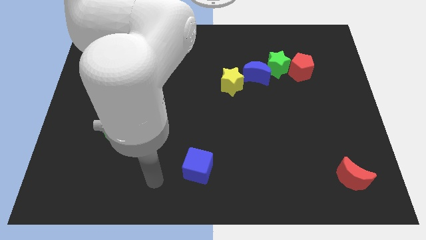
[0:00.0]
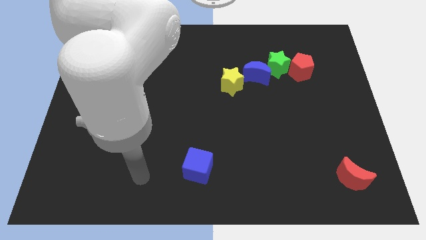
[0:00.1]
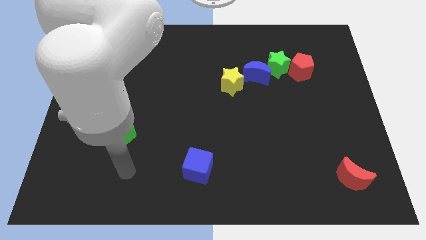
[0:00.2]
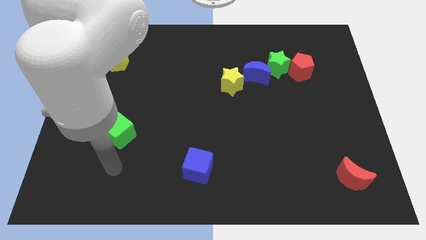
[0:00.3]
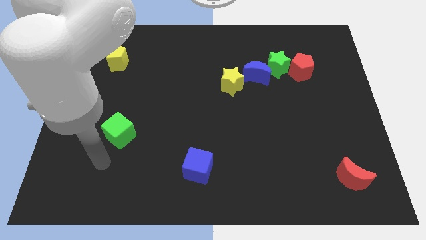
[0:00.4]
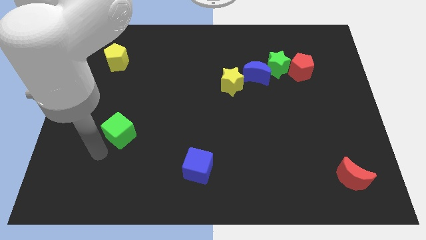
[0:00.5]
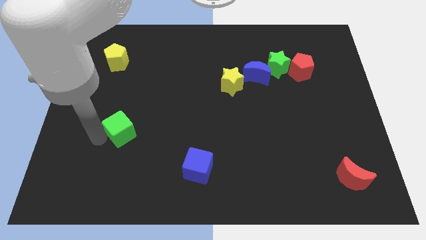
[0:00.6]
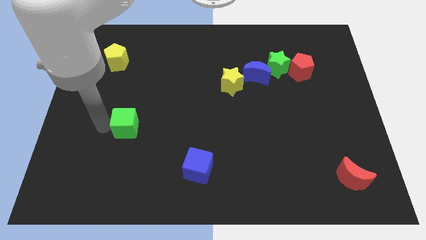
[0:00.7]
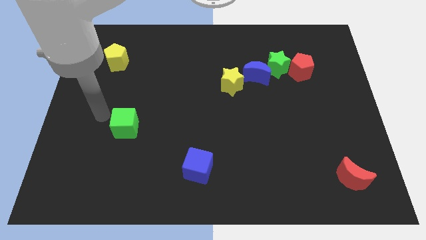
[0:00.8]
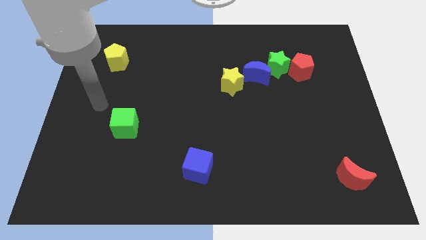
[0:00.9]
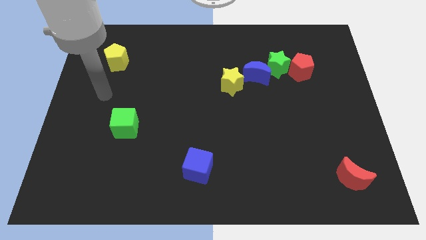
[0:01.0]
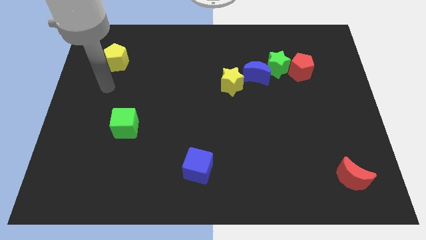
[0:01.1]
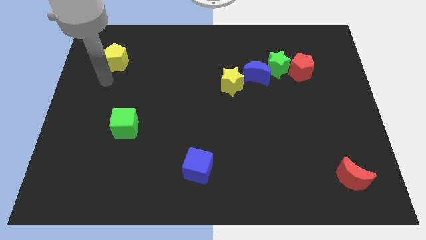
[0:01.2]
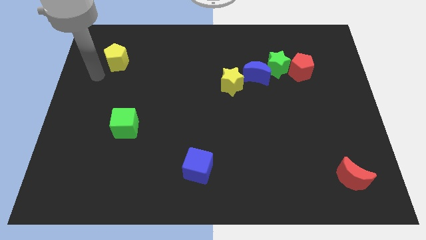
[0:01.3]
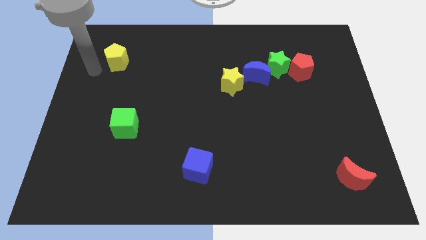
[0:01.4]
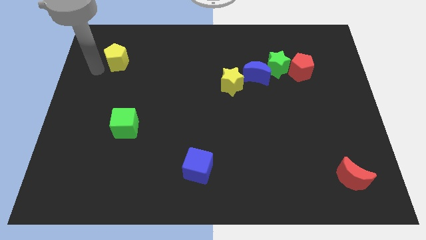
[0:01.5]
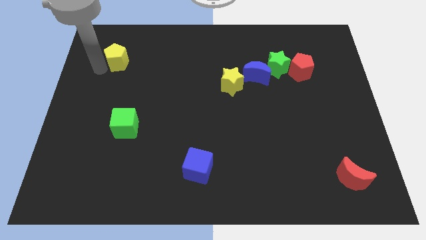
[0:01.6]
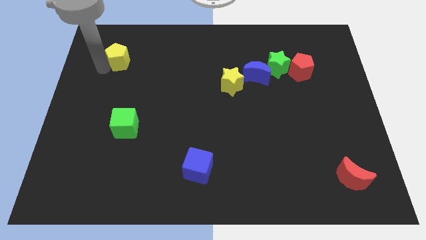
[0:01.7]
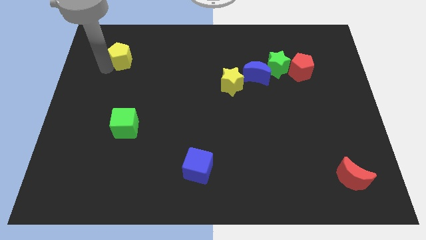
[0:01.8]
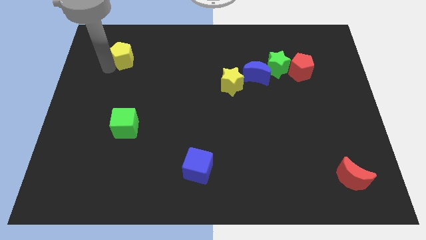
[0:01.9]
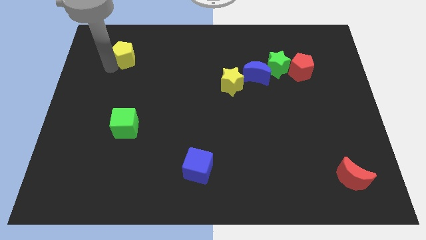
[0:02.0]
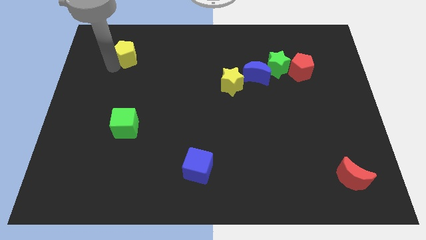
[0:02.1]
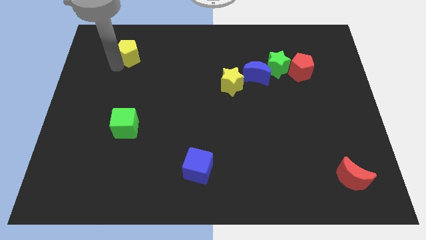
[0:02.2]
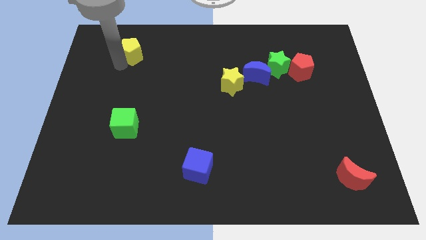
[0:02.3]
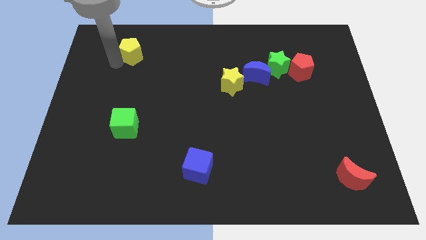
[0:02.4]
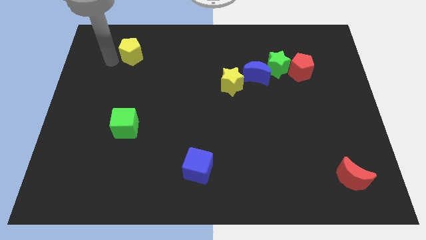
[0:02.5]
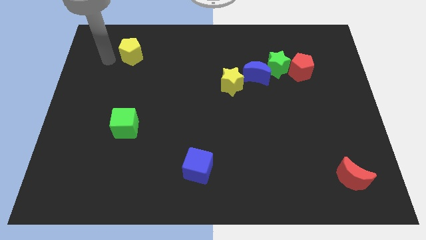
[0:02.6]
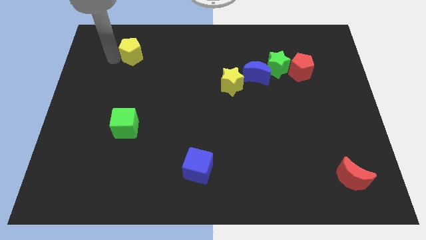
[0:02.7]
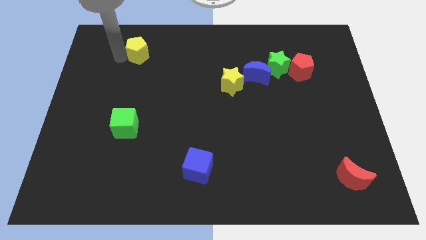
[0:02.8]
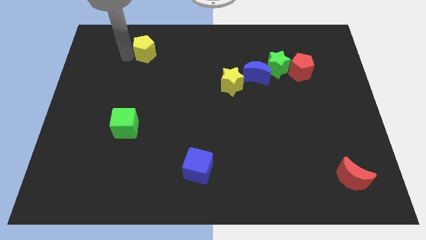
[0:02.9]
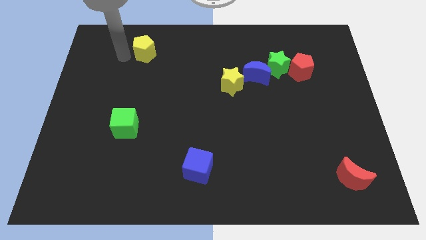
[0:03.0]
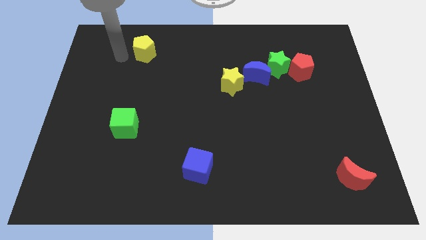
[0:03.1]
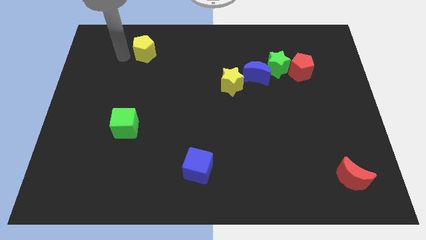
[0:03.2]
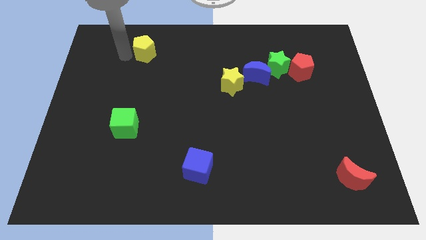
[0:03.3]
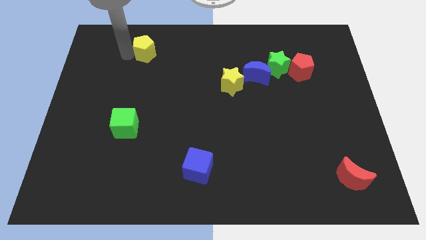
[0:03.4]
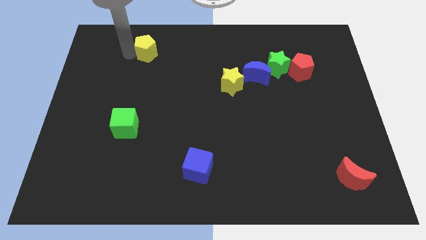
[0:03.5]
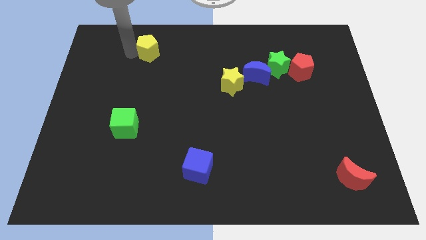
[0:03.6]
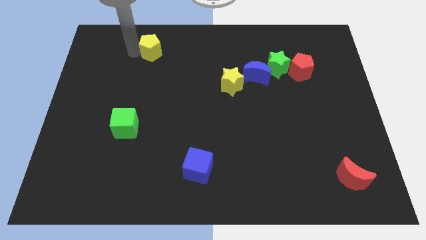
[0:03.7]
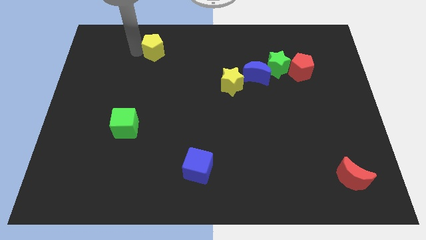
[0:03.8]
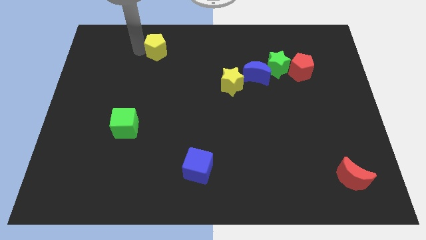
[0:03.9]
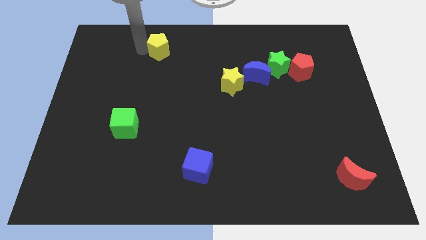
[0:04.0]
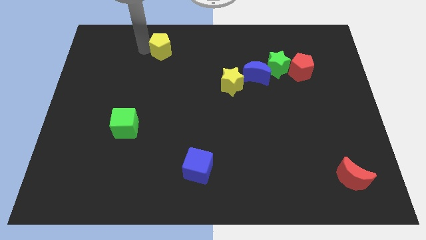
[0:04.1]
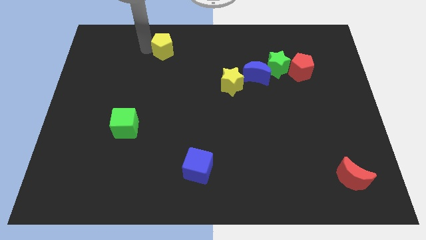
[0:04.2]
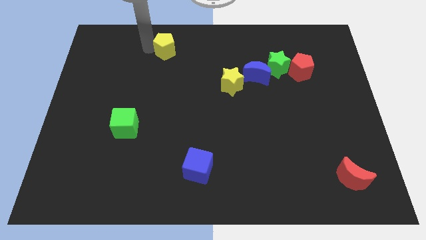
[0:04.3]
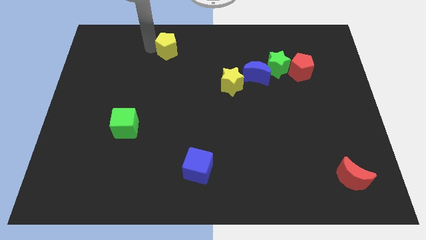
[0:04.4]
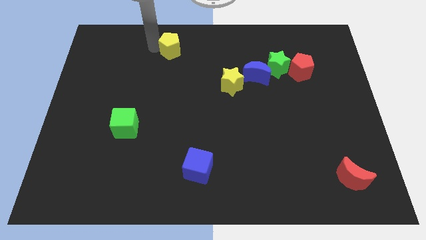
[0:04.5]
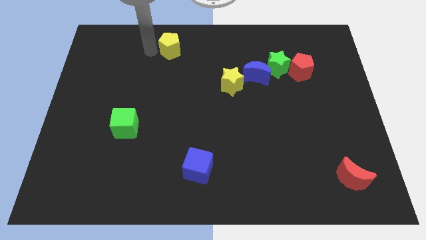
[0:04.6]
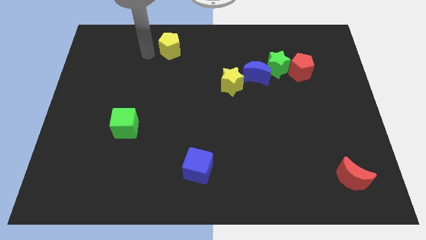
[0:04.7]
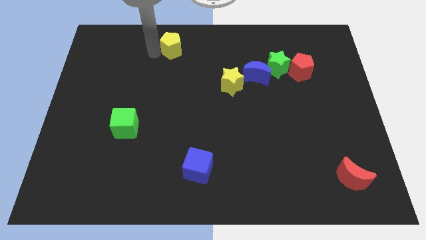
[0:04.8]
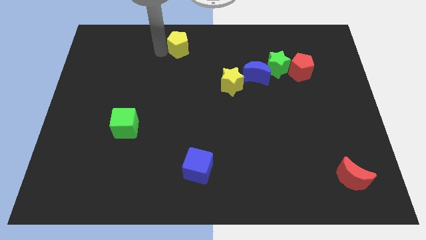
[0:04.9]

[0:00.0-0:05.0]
push the yellow pentagon to the towards your base

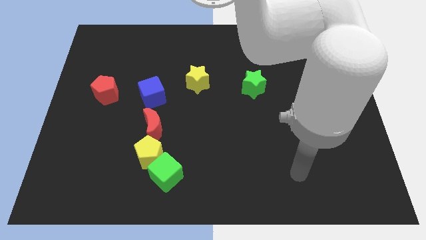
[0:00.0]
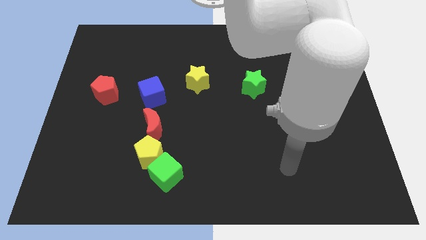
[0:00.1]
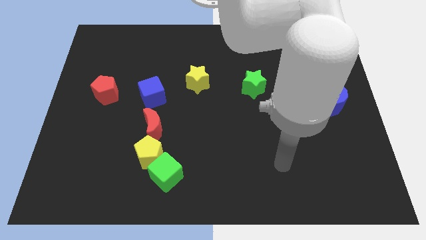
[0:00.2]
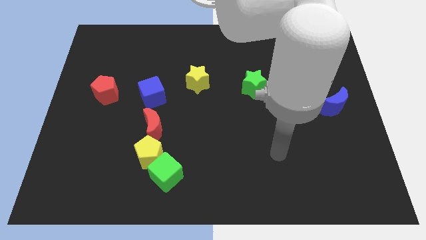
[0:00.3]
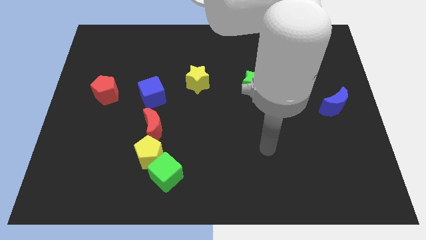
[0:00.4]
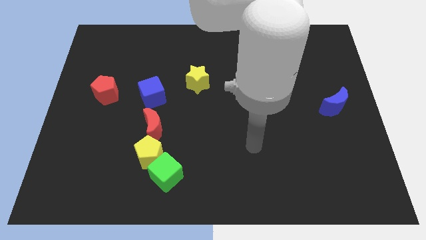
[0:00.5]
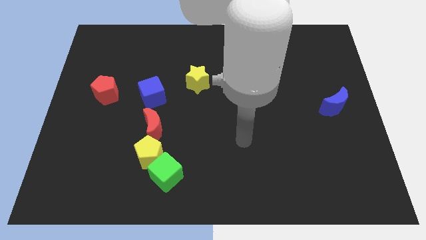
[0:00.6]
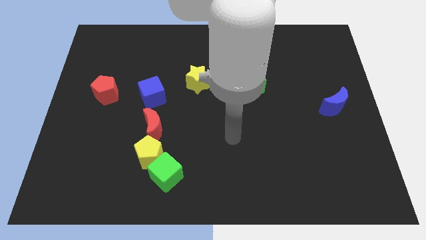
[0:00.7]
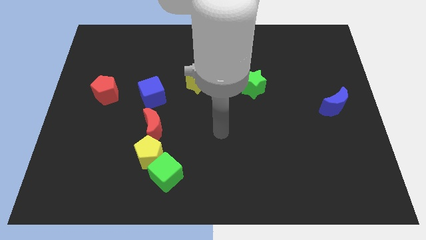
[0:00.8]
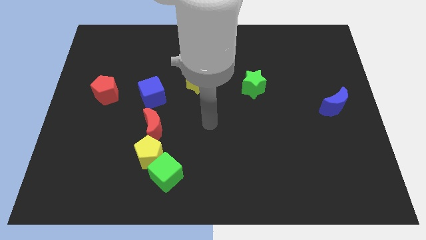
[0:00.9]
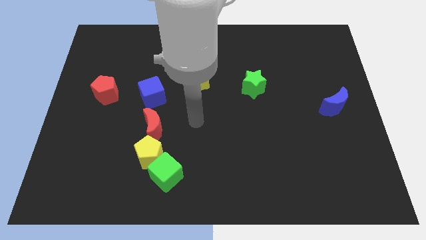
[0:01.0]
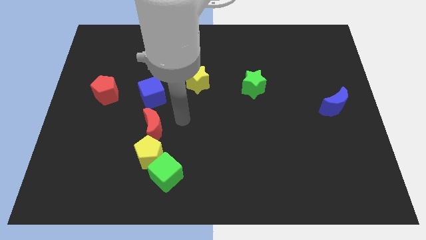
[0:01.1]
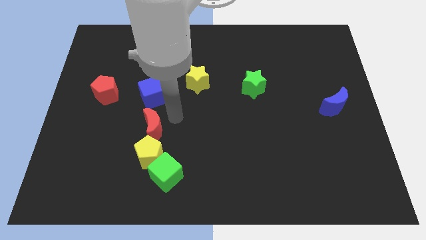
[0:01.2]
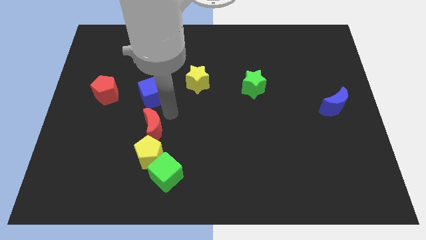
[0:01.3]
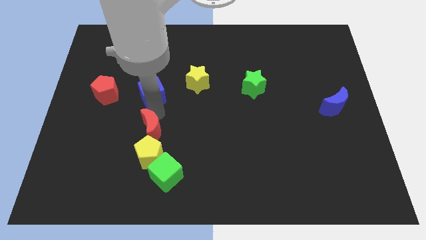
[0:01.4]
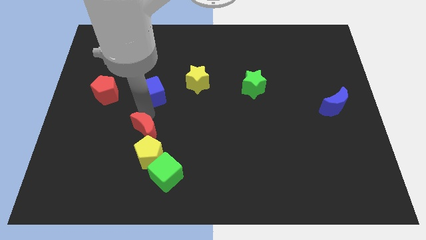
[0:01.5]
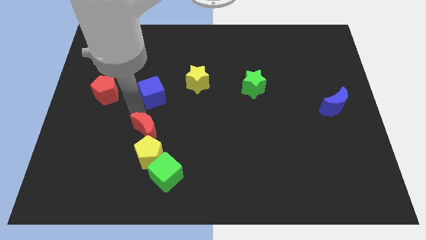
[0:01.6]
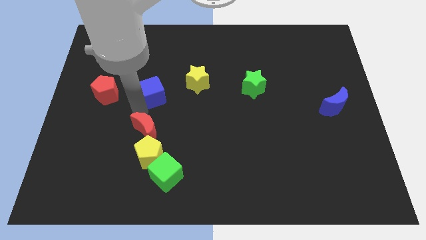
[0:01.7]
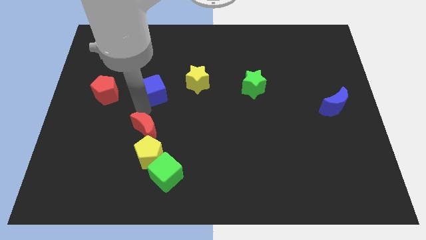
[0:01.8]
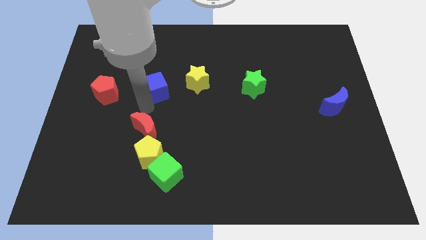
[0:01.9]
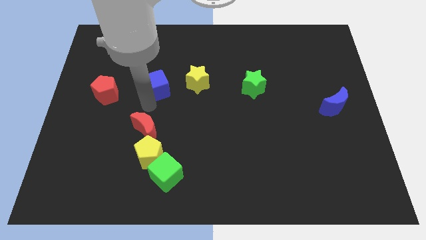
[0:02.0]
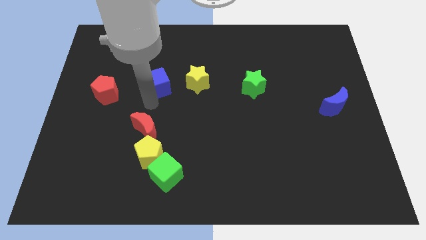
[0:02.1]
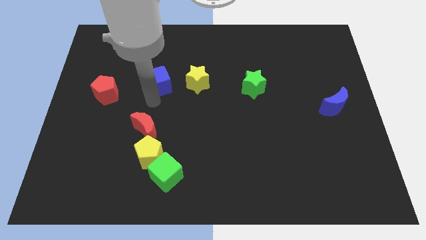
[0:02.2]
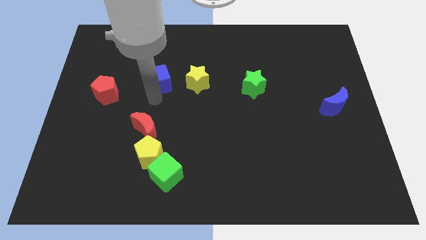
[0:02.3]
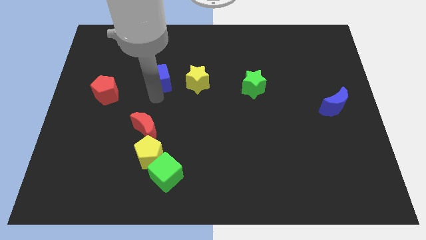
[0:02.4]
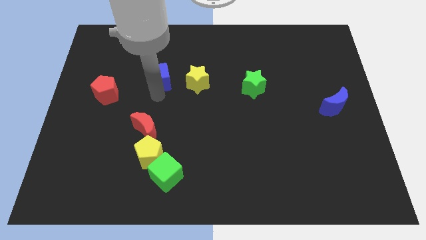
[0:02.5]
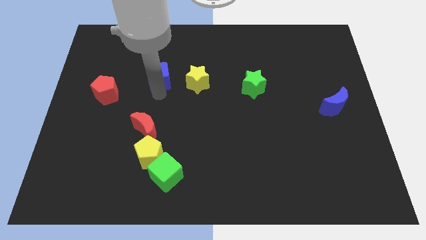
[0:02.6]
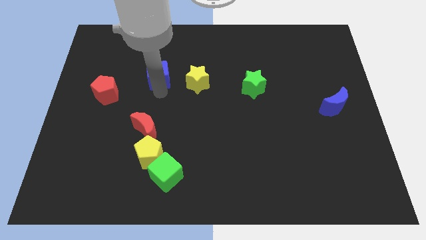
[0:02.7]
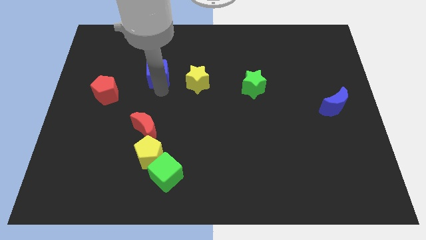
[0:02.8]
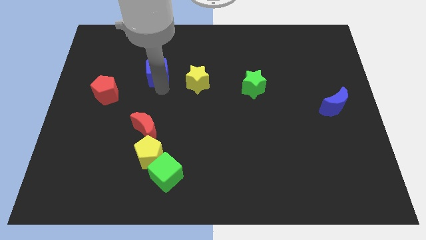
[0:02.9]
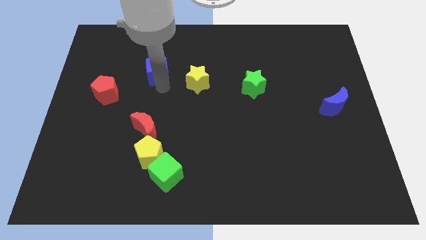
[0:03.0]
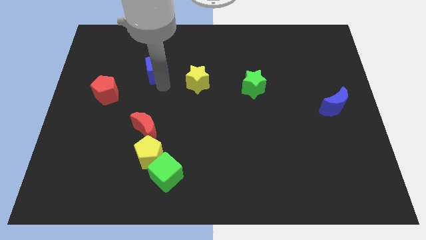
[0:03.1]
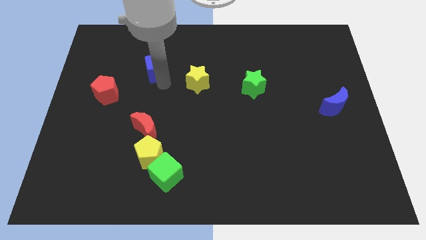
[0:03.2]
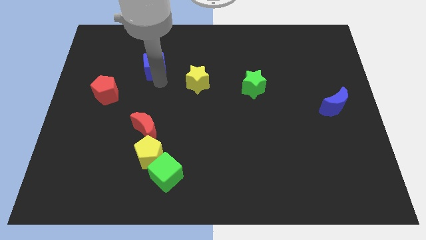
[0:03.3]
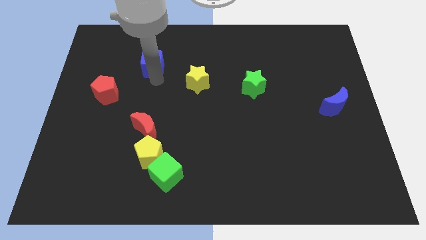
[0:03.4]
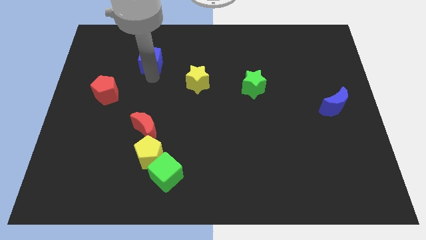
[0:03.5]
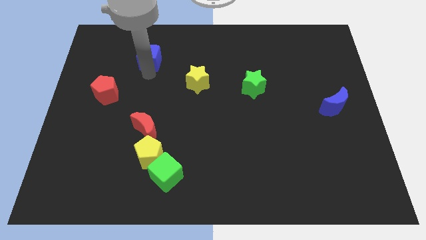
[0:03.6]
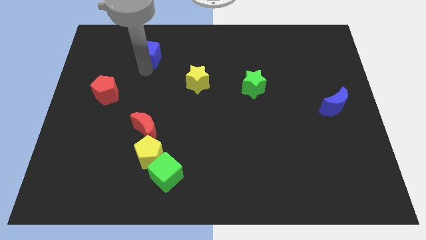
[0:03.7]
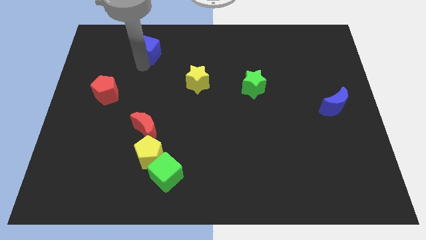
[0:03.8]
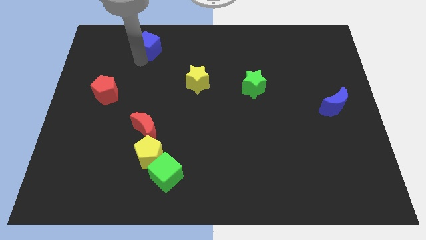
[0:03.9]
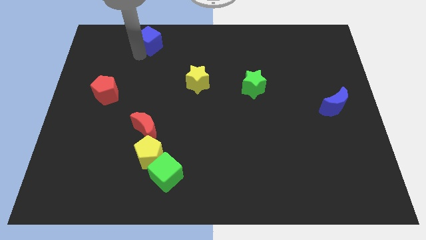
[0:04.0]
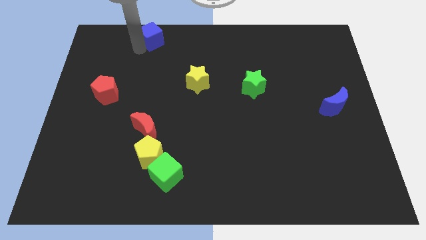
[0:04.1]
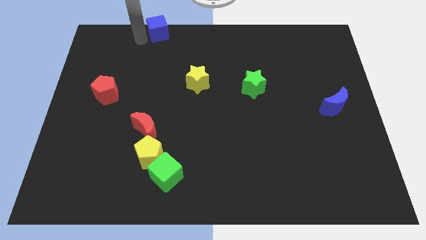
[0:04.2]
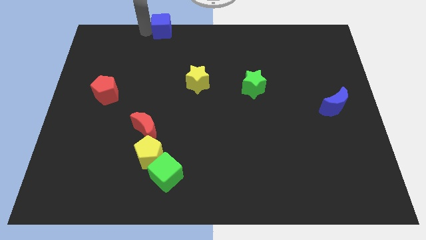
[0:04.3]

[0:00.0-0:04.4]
slide the blue cube to the towards your base
